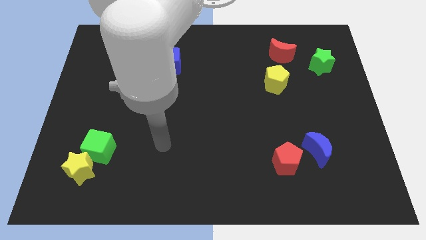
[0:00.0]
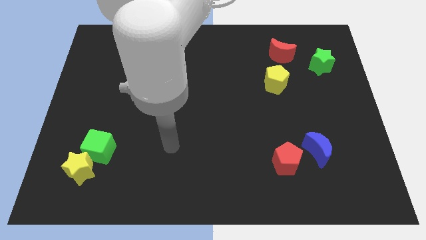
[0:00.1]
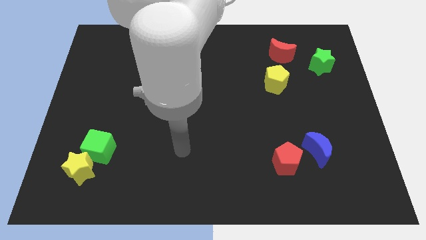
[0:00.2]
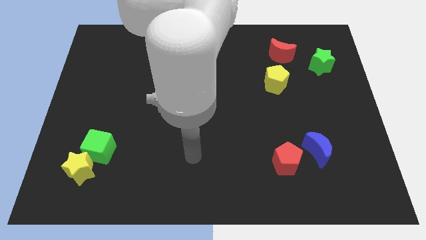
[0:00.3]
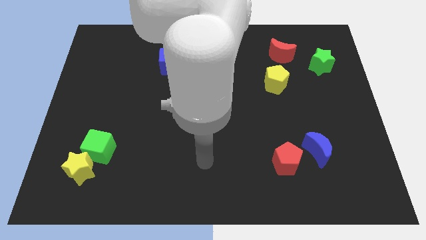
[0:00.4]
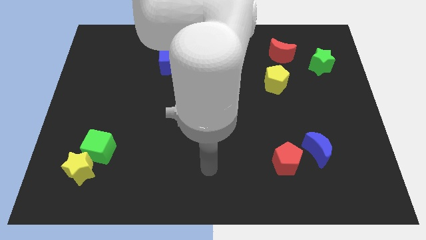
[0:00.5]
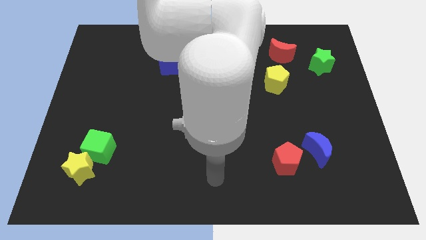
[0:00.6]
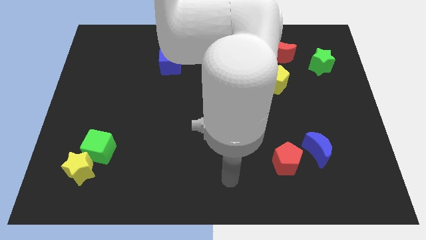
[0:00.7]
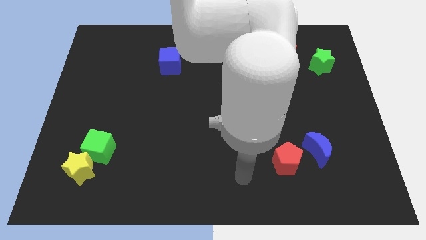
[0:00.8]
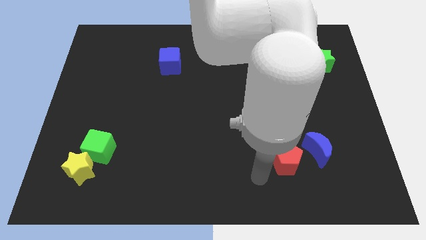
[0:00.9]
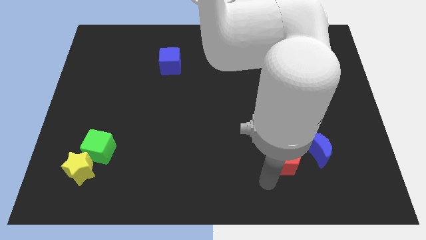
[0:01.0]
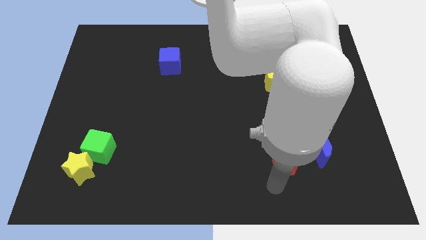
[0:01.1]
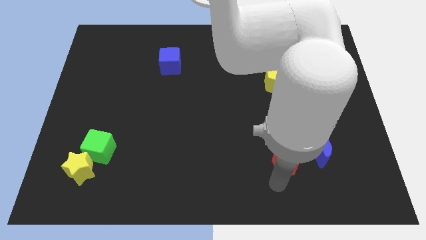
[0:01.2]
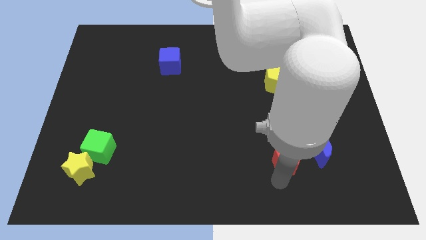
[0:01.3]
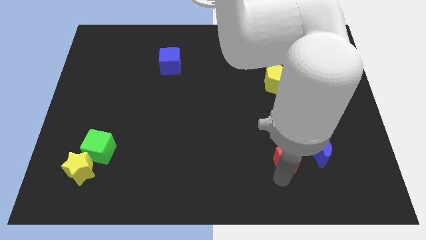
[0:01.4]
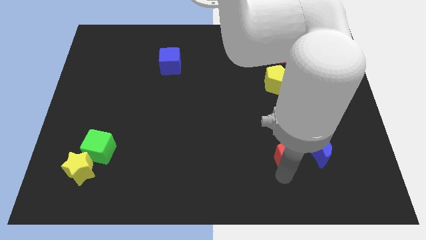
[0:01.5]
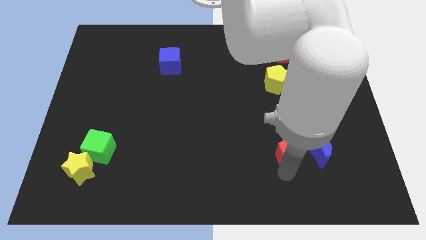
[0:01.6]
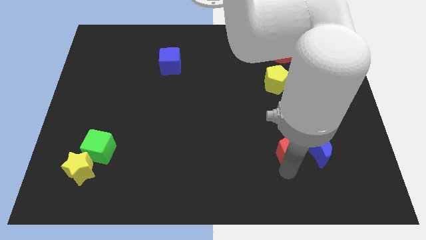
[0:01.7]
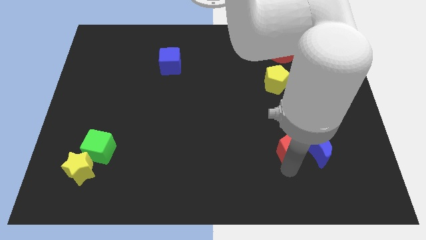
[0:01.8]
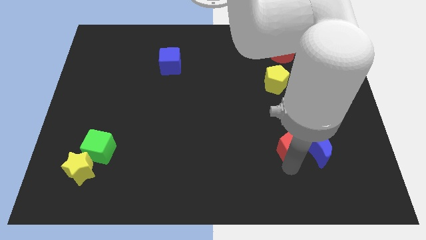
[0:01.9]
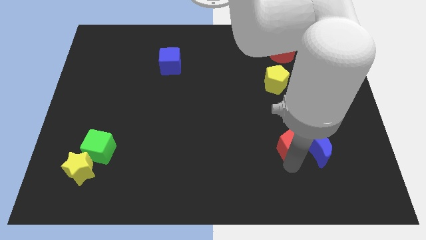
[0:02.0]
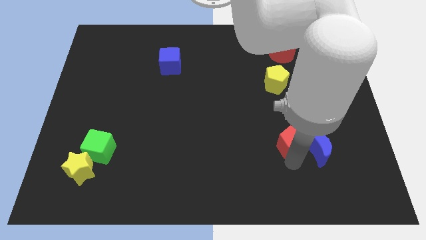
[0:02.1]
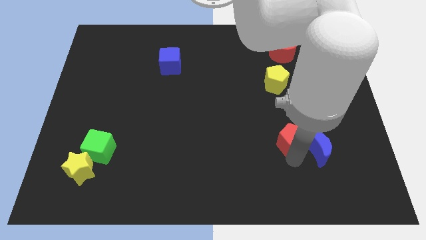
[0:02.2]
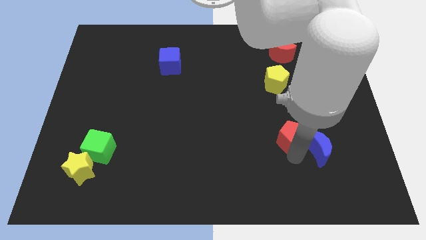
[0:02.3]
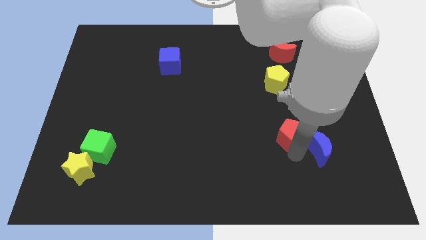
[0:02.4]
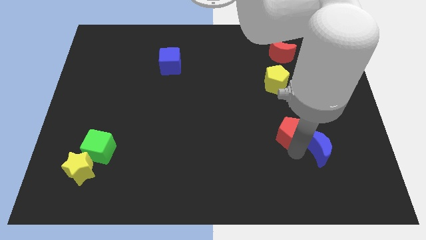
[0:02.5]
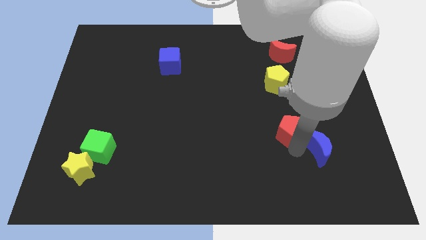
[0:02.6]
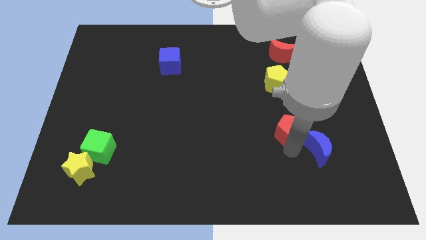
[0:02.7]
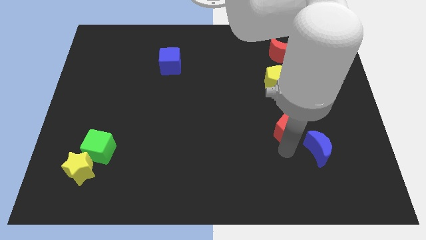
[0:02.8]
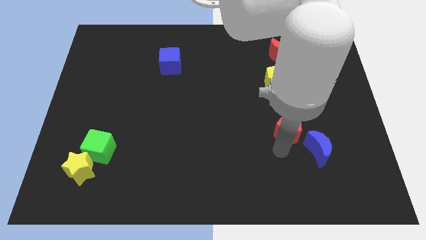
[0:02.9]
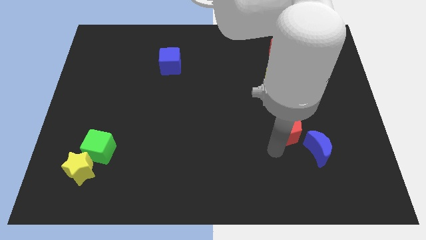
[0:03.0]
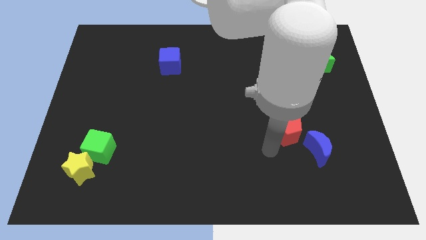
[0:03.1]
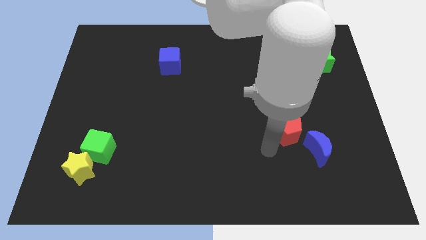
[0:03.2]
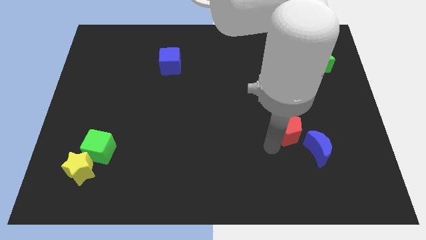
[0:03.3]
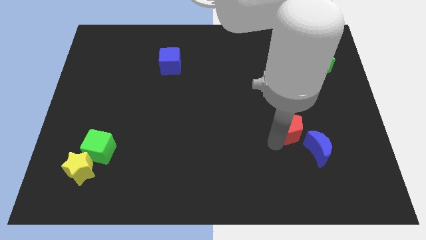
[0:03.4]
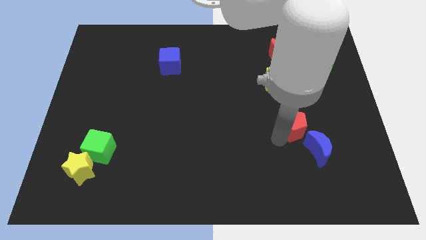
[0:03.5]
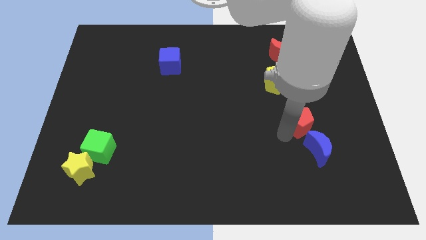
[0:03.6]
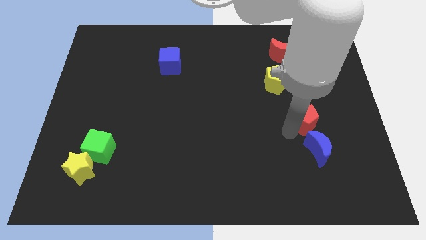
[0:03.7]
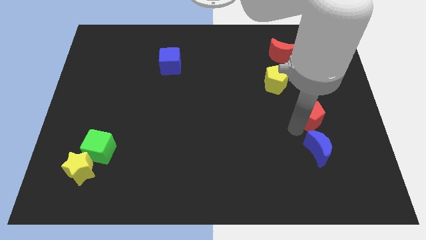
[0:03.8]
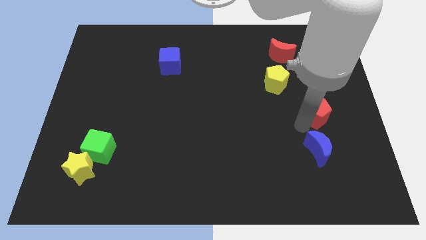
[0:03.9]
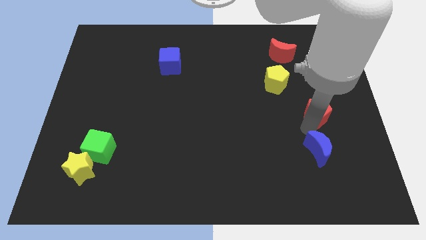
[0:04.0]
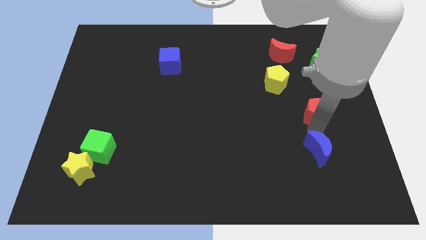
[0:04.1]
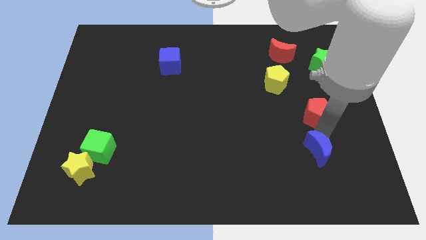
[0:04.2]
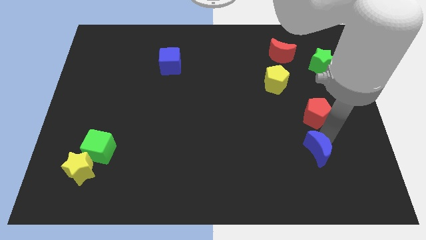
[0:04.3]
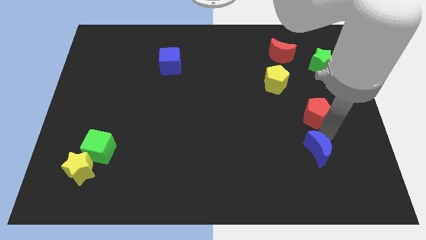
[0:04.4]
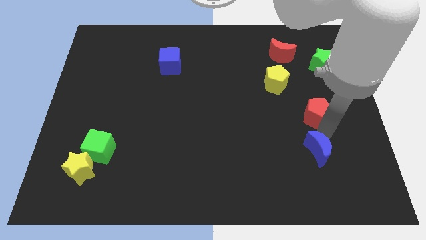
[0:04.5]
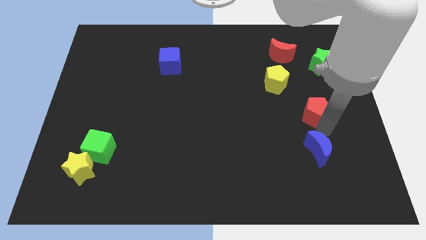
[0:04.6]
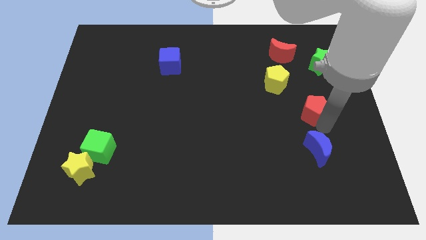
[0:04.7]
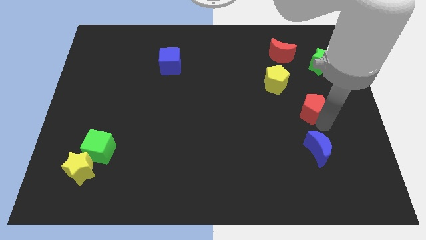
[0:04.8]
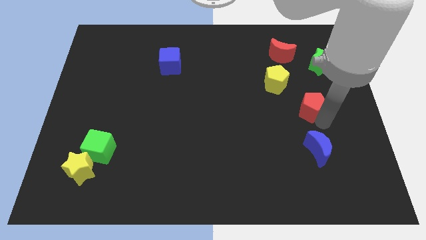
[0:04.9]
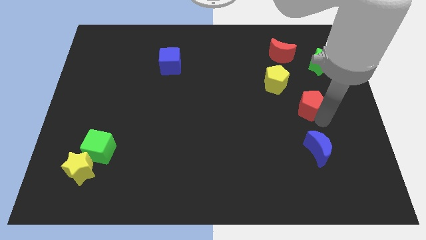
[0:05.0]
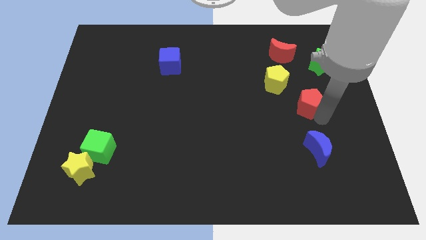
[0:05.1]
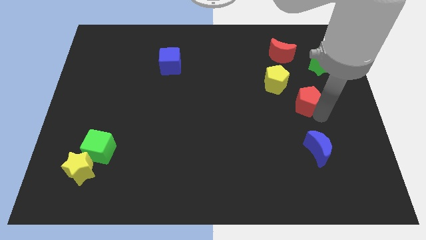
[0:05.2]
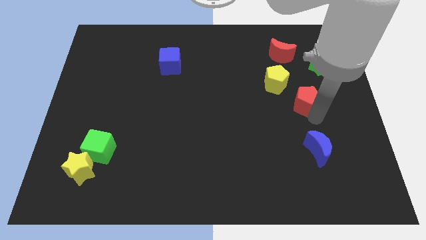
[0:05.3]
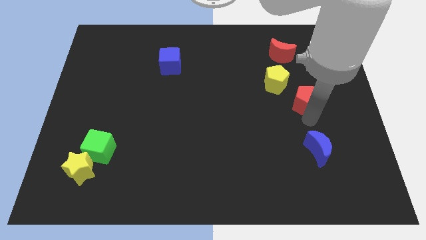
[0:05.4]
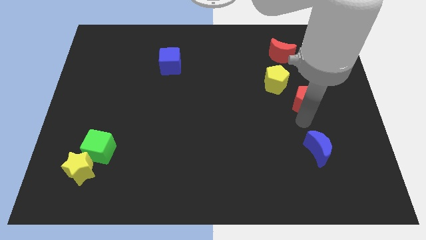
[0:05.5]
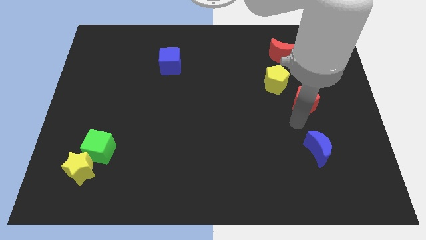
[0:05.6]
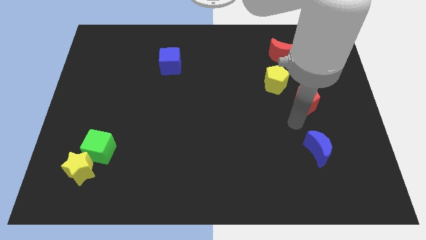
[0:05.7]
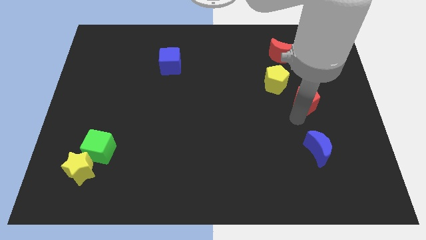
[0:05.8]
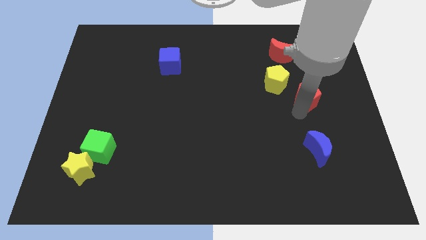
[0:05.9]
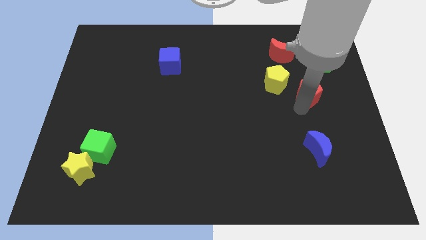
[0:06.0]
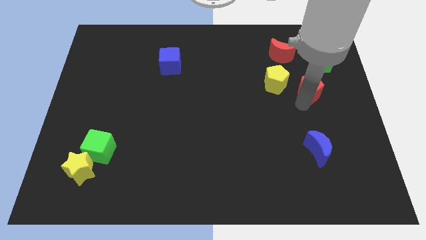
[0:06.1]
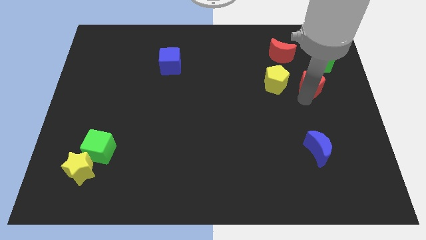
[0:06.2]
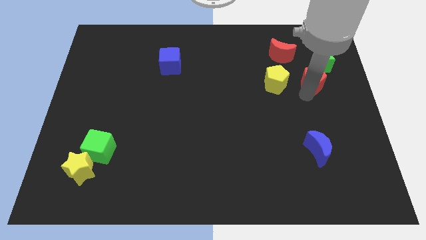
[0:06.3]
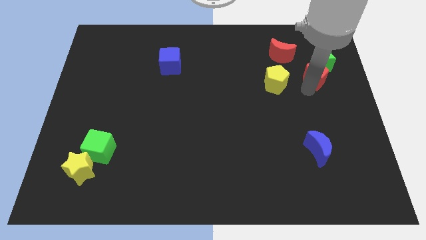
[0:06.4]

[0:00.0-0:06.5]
move the red pentagon to the green star
